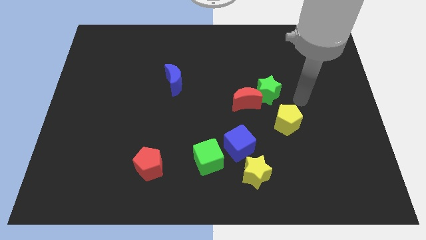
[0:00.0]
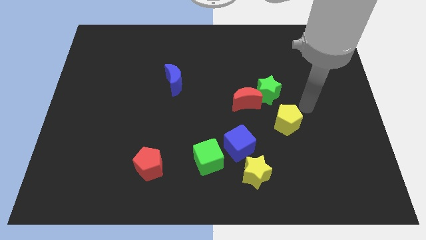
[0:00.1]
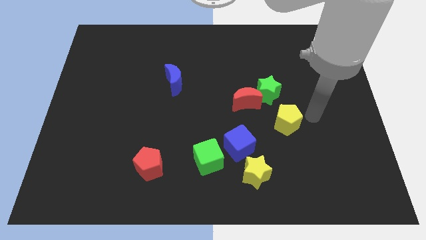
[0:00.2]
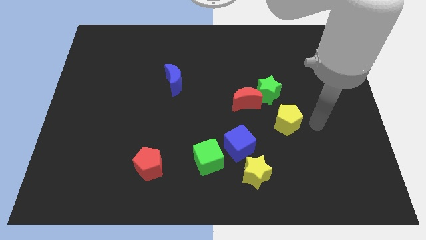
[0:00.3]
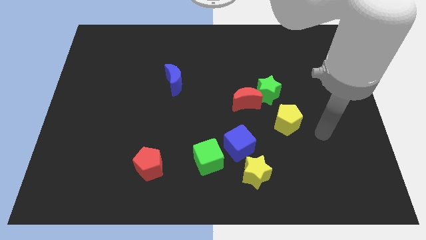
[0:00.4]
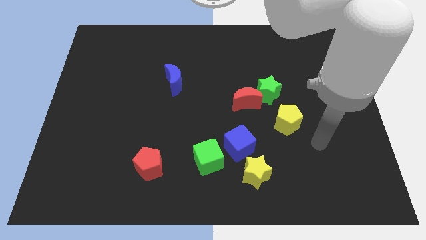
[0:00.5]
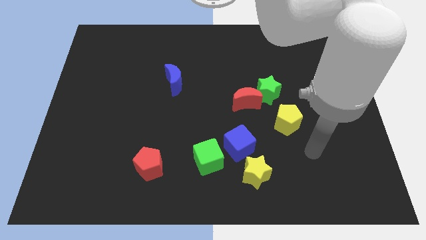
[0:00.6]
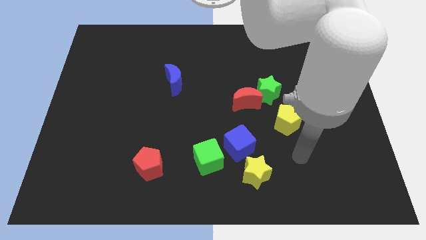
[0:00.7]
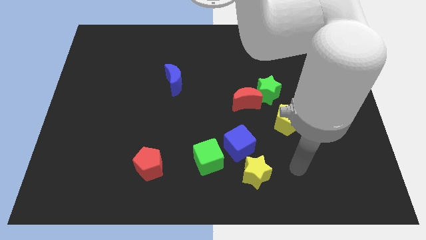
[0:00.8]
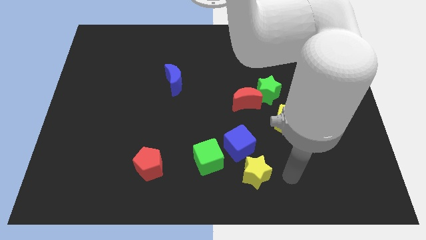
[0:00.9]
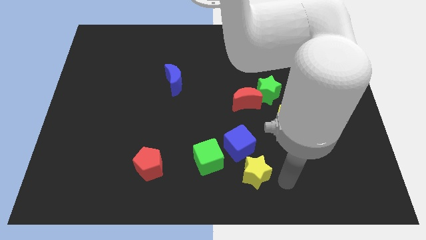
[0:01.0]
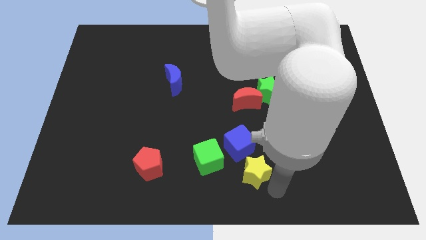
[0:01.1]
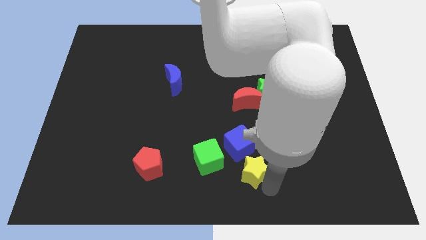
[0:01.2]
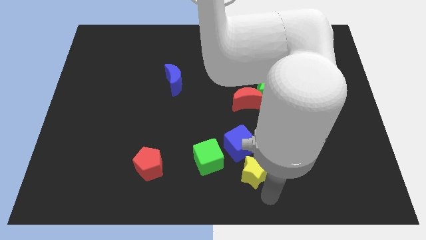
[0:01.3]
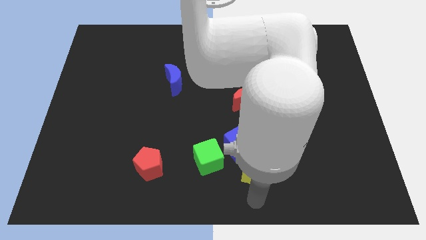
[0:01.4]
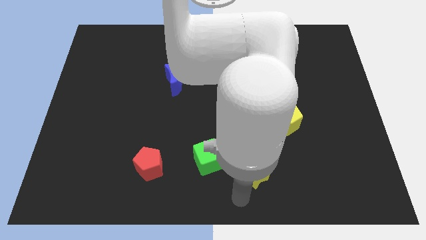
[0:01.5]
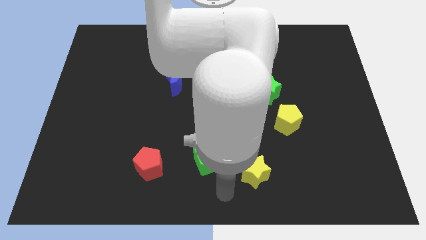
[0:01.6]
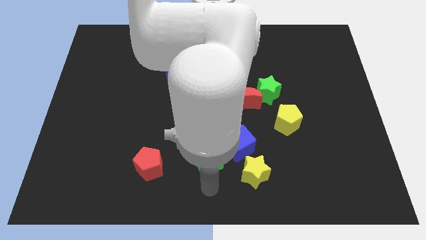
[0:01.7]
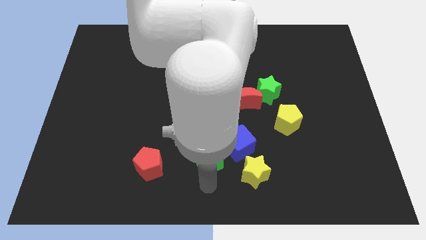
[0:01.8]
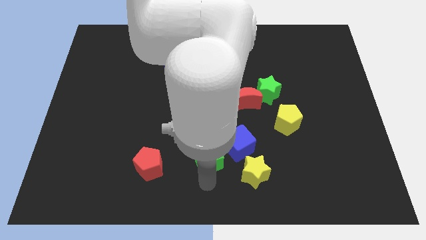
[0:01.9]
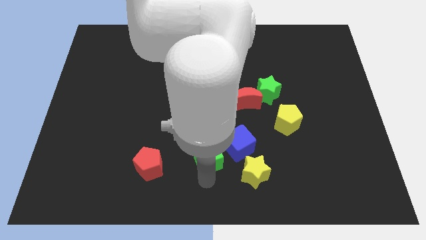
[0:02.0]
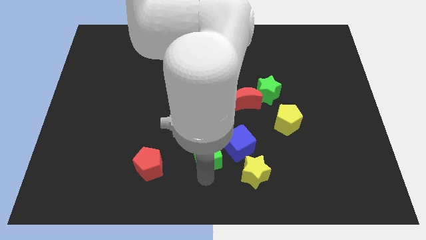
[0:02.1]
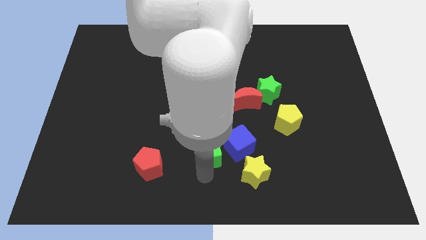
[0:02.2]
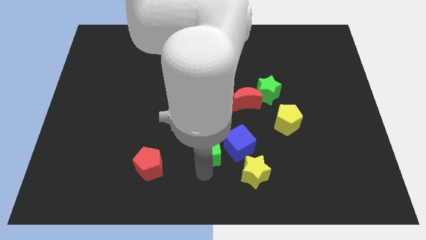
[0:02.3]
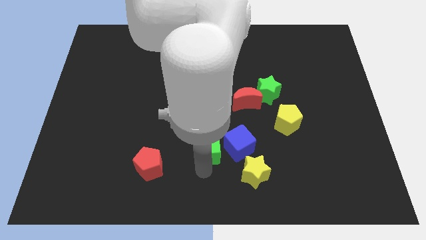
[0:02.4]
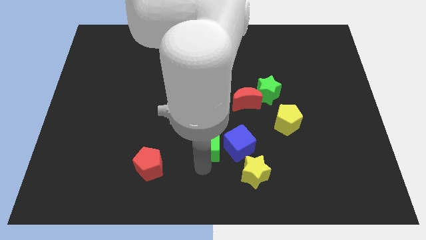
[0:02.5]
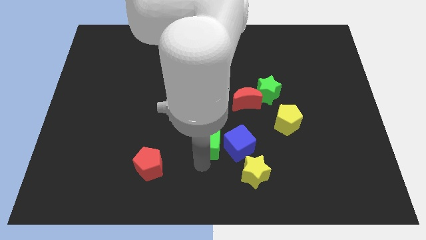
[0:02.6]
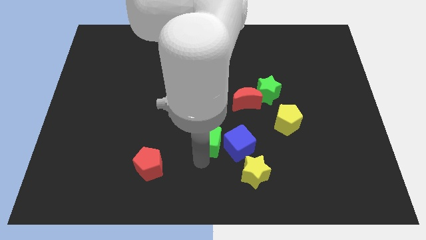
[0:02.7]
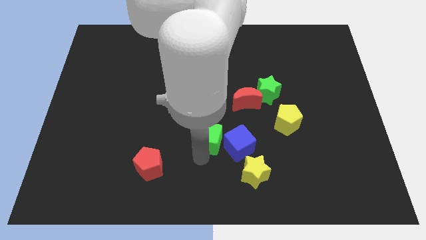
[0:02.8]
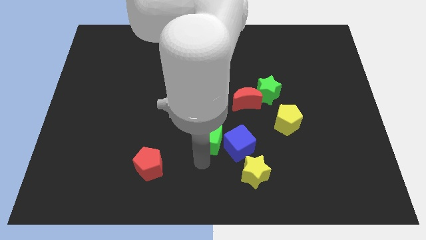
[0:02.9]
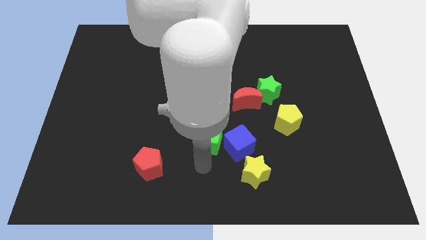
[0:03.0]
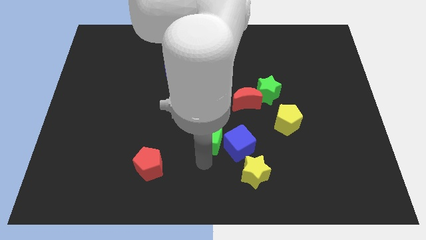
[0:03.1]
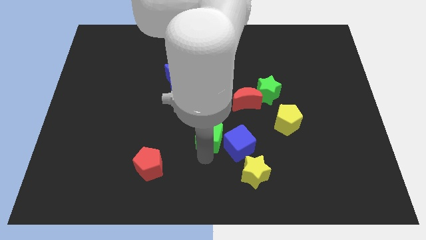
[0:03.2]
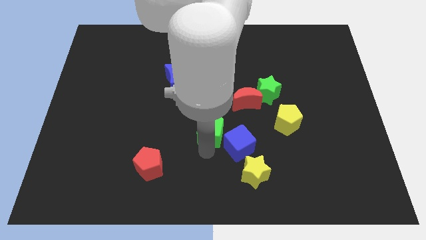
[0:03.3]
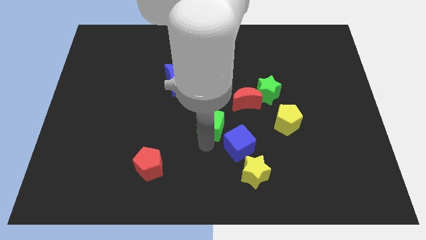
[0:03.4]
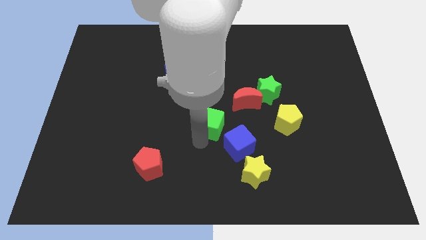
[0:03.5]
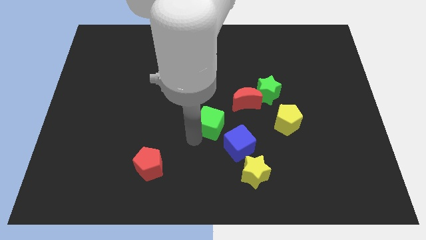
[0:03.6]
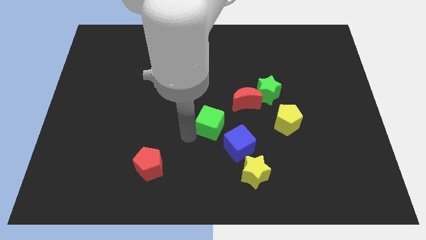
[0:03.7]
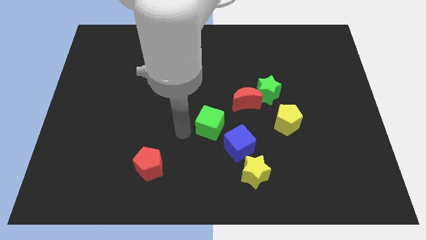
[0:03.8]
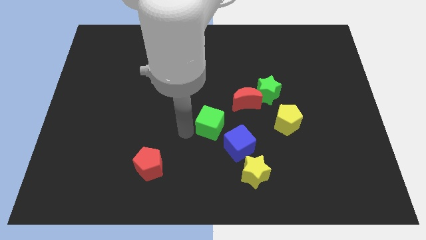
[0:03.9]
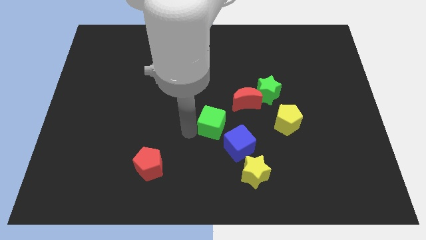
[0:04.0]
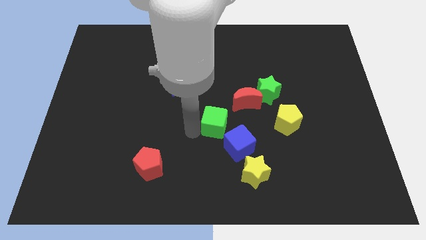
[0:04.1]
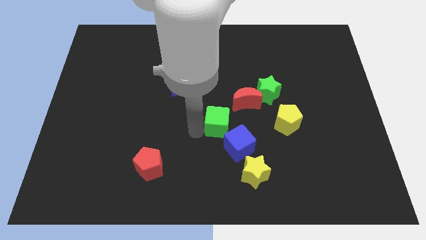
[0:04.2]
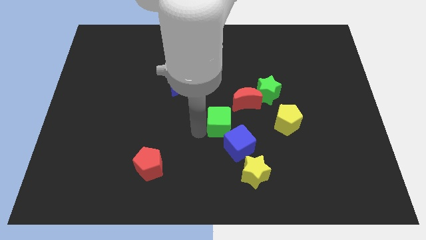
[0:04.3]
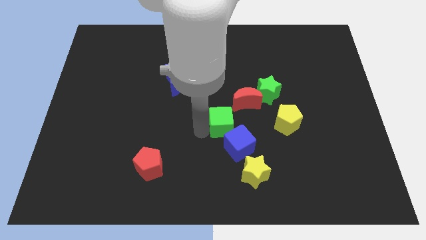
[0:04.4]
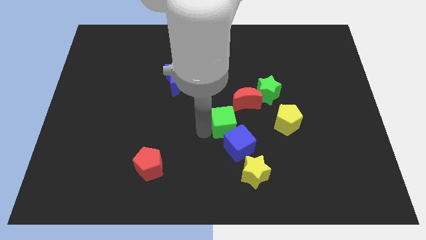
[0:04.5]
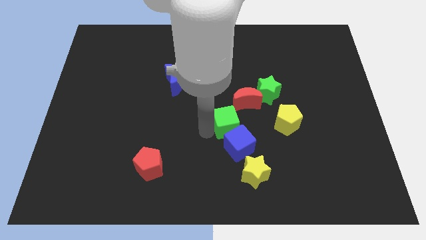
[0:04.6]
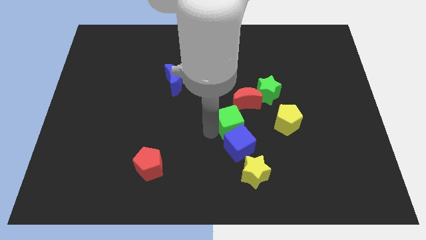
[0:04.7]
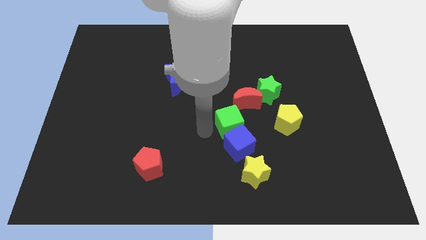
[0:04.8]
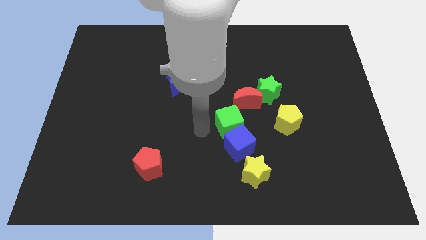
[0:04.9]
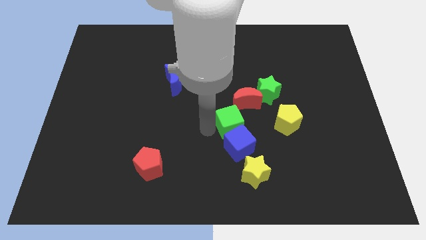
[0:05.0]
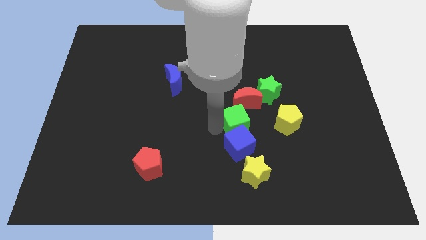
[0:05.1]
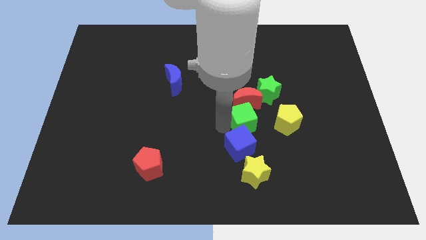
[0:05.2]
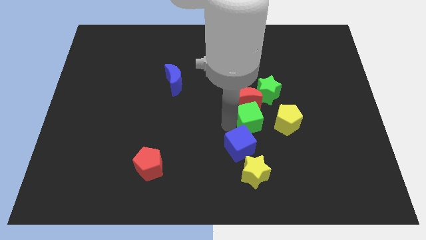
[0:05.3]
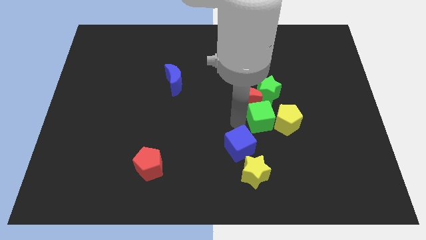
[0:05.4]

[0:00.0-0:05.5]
put the green cube towards the yellow pentagon

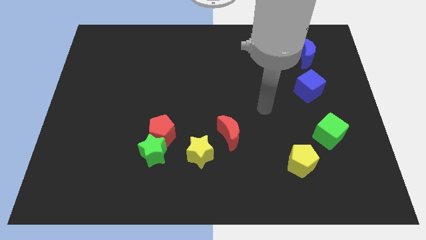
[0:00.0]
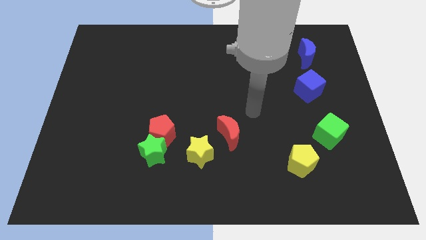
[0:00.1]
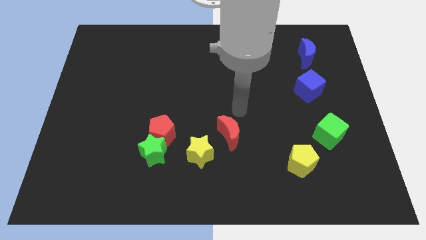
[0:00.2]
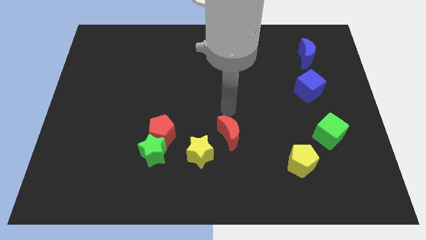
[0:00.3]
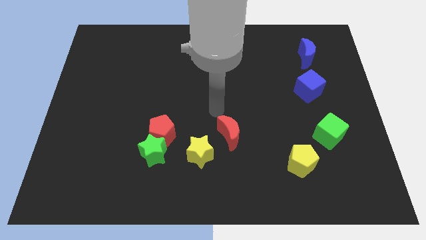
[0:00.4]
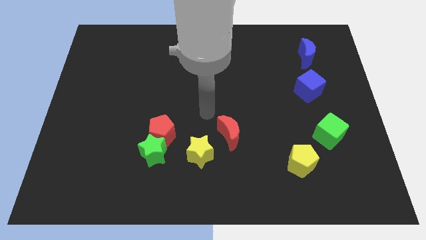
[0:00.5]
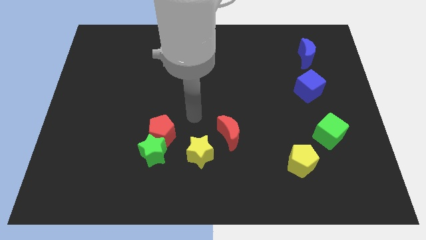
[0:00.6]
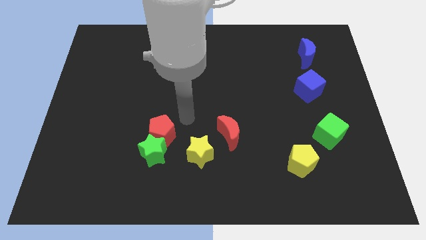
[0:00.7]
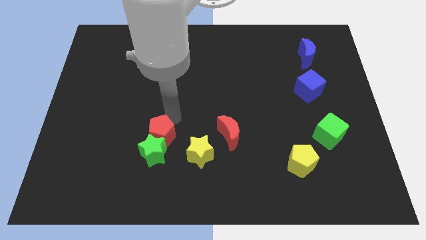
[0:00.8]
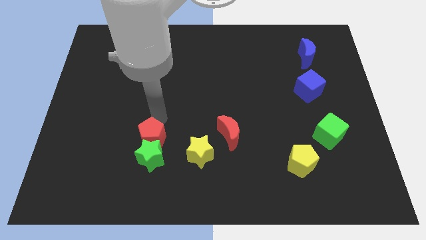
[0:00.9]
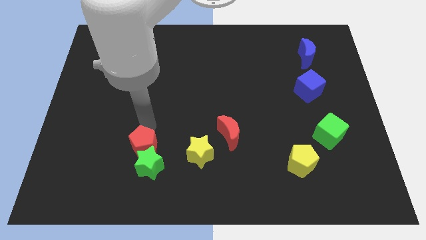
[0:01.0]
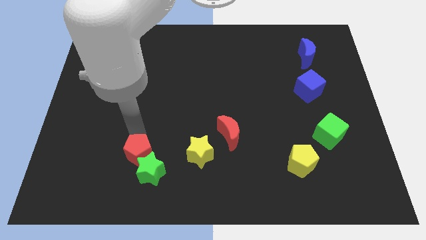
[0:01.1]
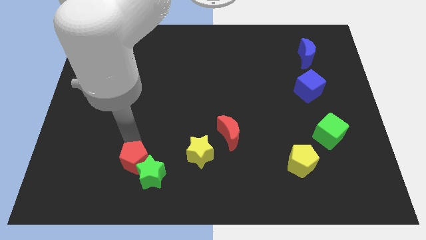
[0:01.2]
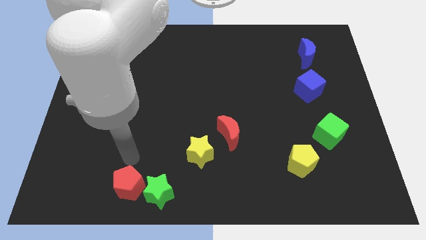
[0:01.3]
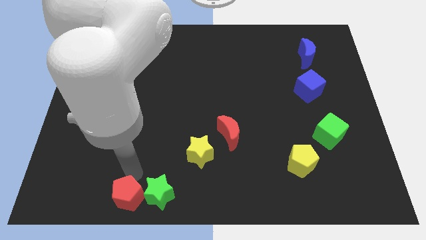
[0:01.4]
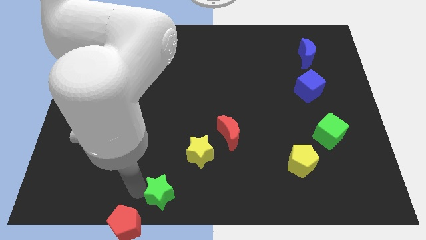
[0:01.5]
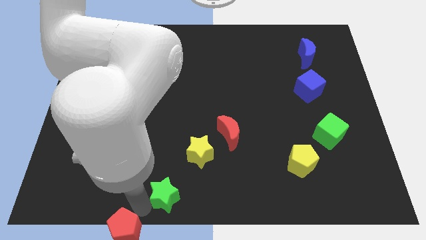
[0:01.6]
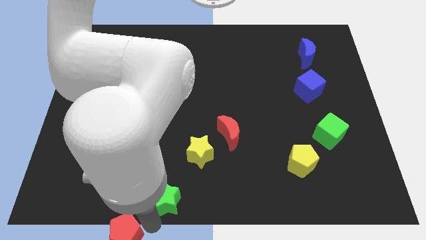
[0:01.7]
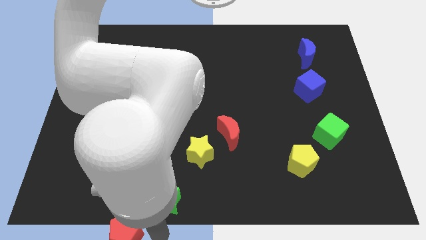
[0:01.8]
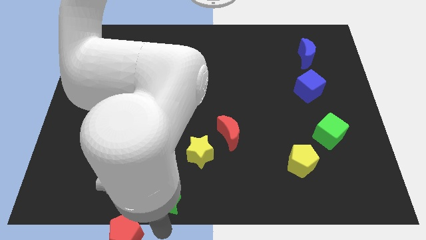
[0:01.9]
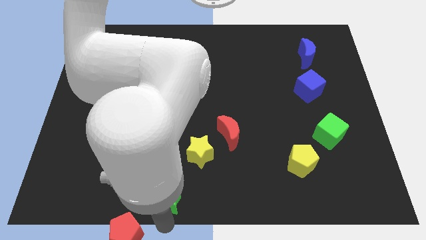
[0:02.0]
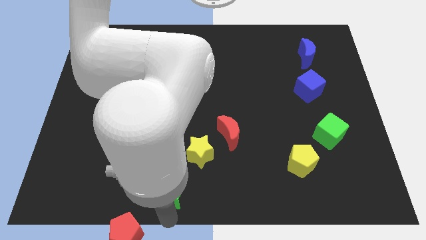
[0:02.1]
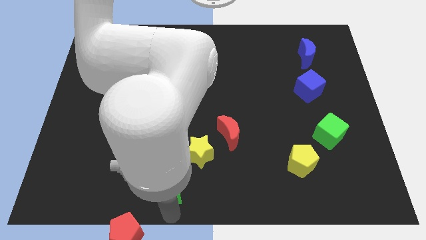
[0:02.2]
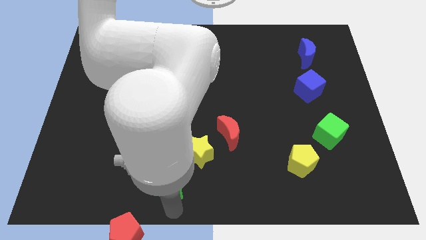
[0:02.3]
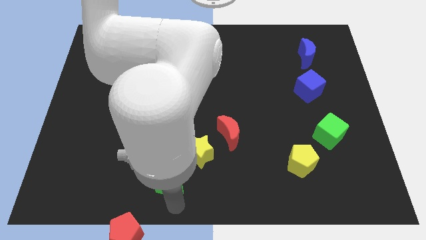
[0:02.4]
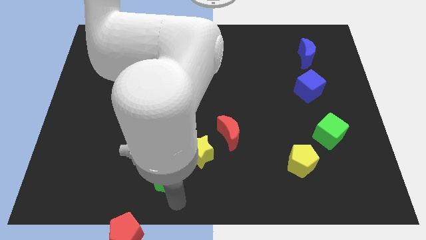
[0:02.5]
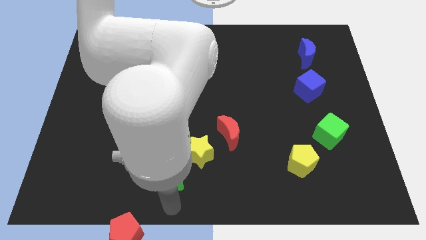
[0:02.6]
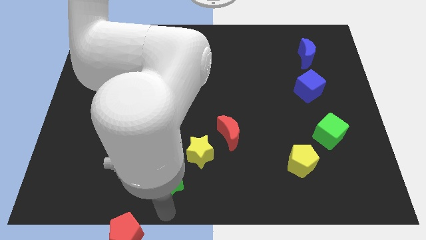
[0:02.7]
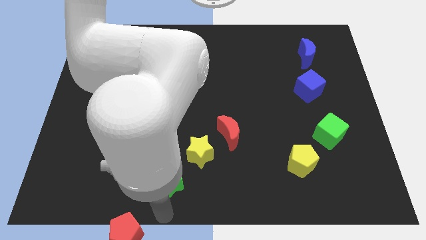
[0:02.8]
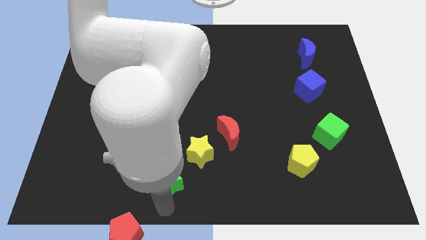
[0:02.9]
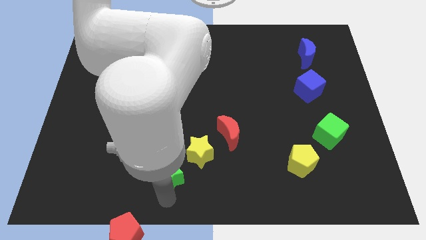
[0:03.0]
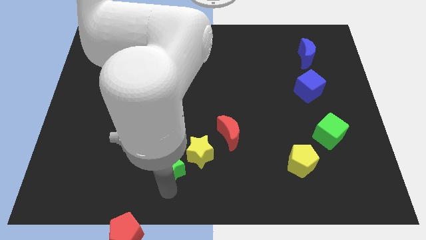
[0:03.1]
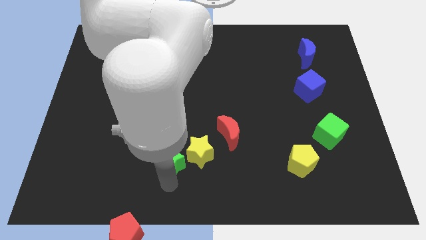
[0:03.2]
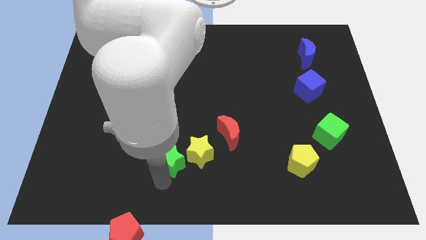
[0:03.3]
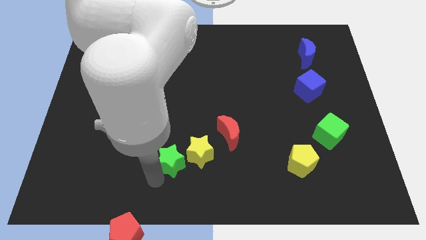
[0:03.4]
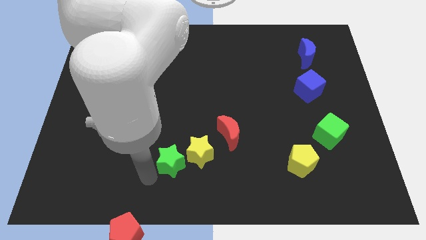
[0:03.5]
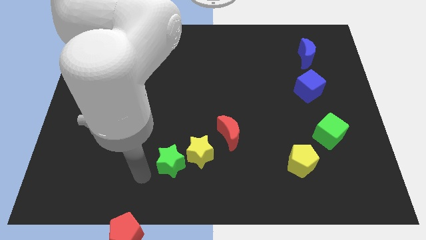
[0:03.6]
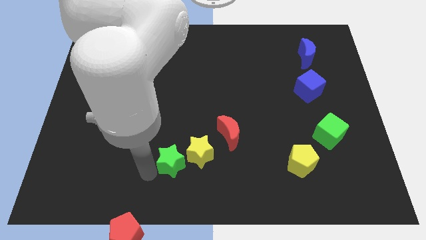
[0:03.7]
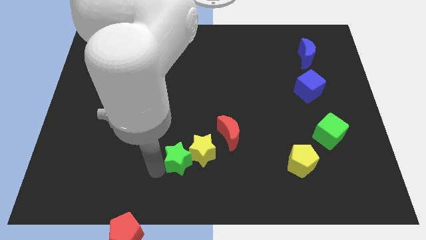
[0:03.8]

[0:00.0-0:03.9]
put the green star close to the yellow star
